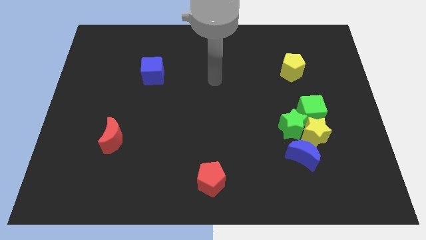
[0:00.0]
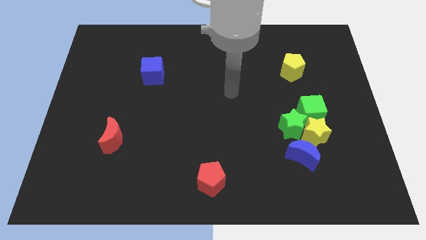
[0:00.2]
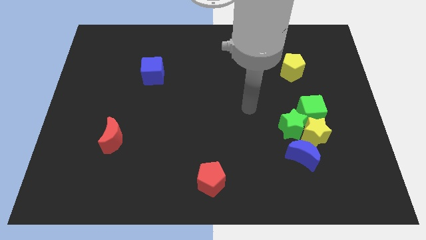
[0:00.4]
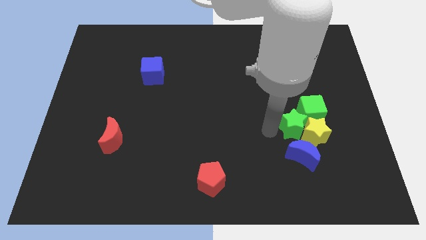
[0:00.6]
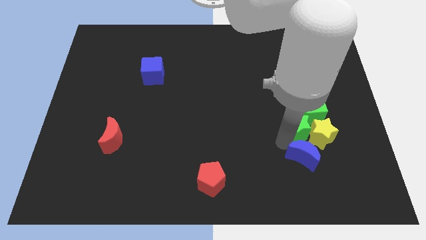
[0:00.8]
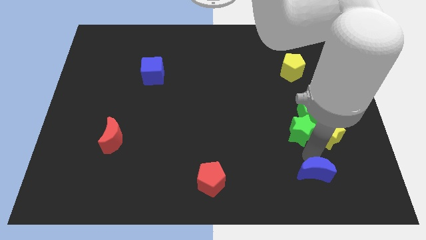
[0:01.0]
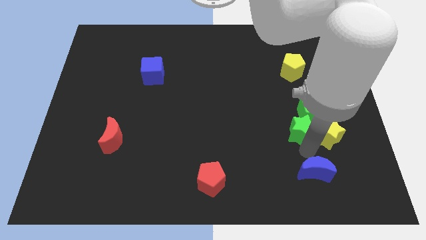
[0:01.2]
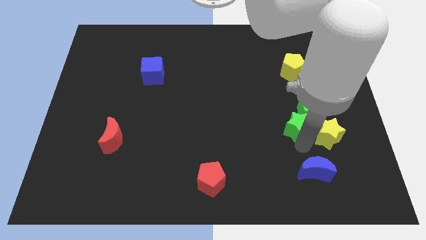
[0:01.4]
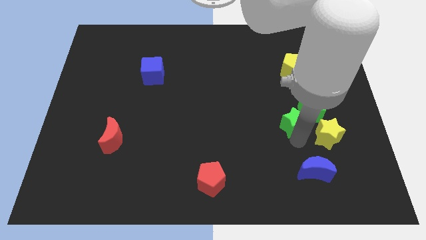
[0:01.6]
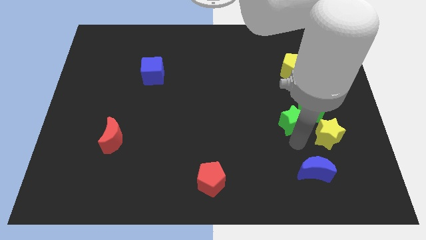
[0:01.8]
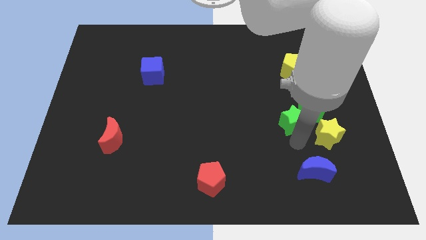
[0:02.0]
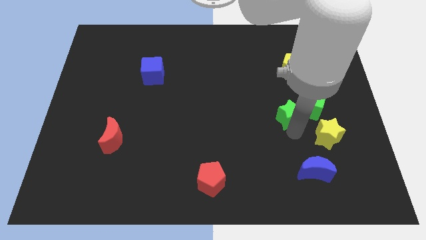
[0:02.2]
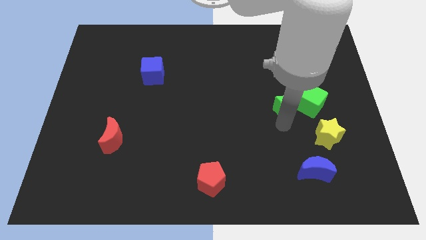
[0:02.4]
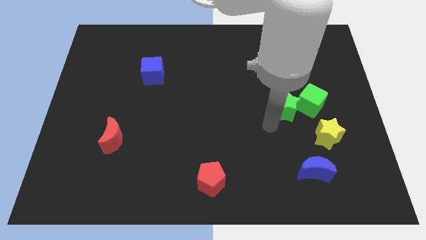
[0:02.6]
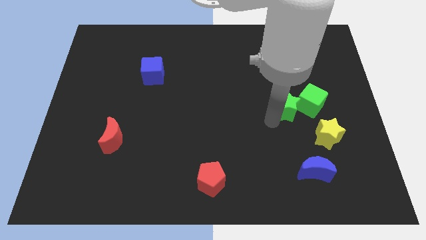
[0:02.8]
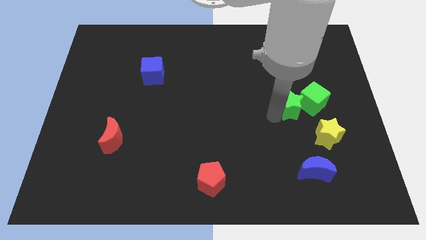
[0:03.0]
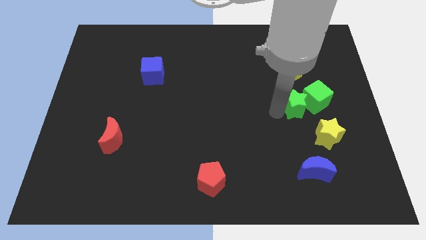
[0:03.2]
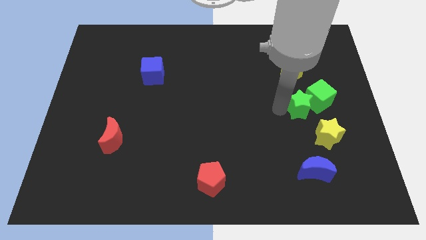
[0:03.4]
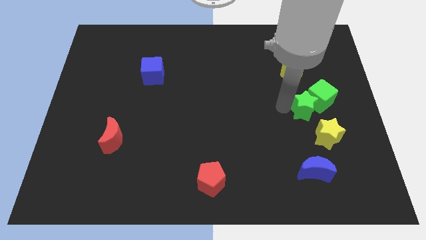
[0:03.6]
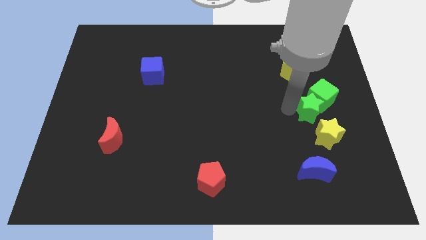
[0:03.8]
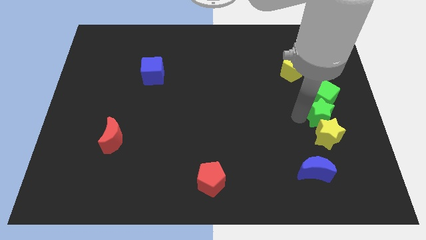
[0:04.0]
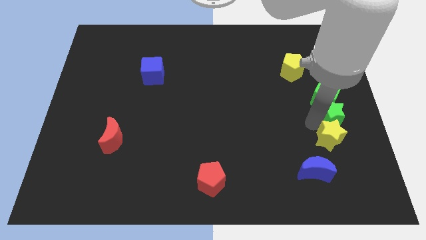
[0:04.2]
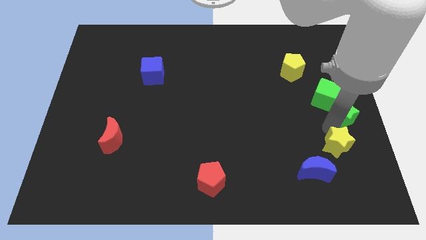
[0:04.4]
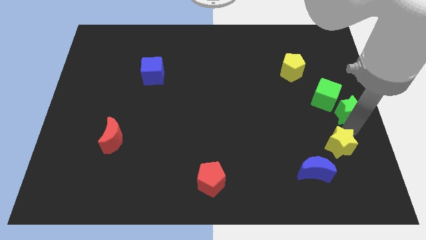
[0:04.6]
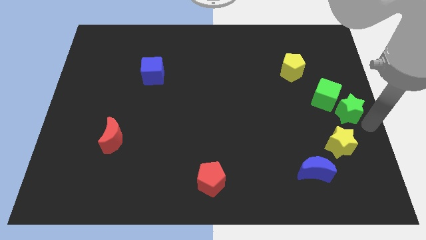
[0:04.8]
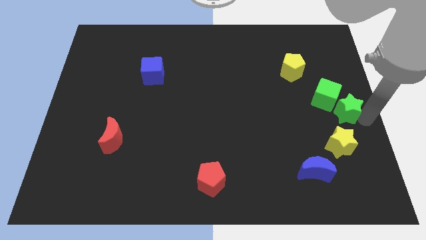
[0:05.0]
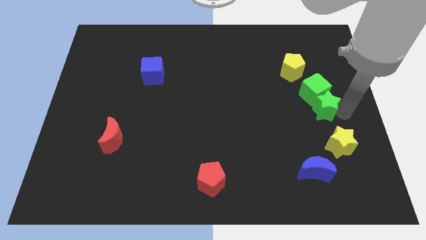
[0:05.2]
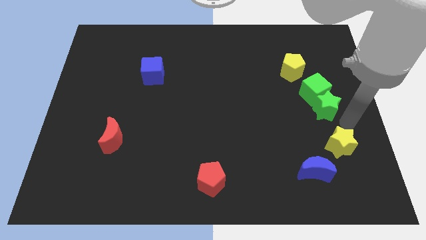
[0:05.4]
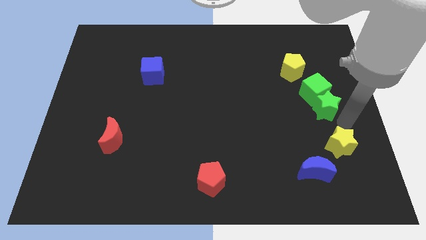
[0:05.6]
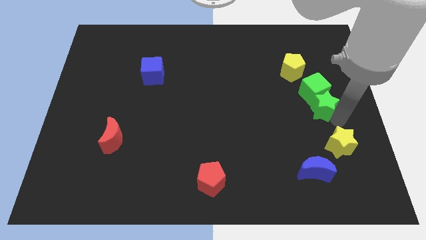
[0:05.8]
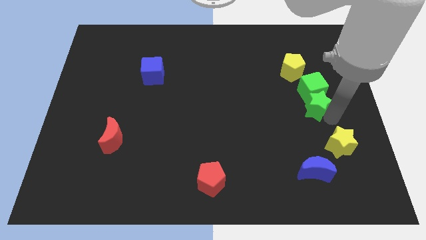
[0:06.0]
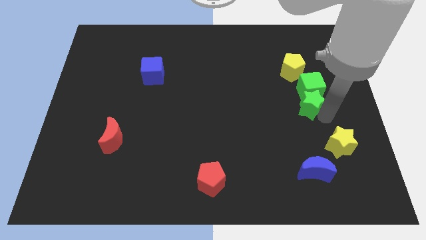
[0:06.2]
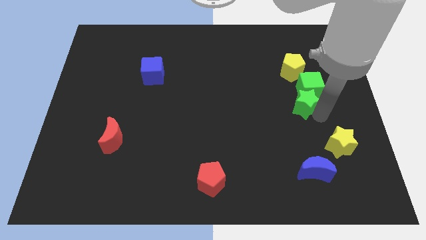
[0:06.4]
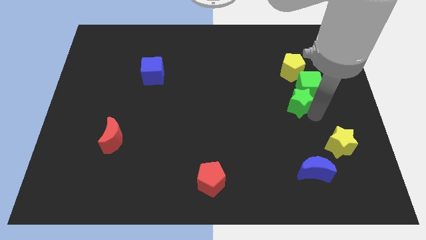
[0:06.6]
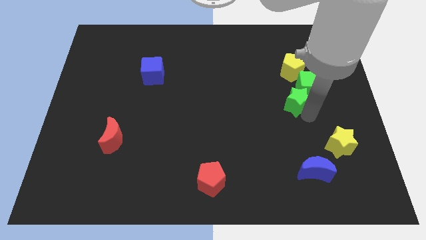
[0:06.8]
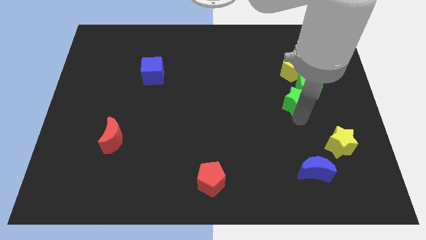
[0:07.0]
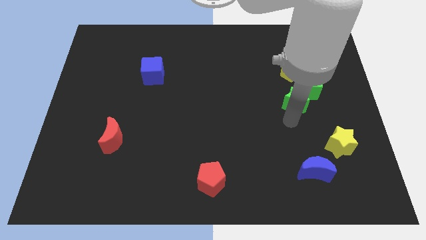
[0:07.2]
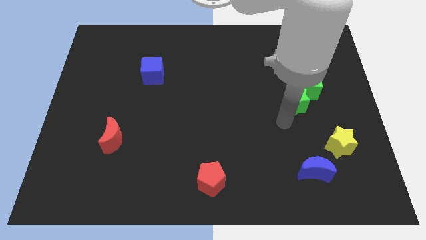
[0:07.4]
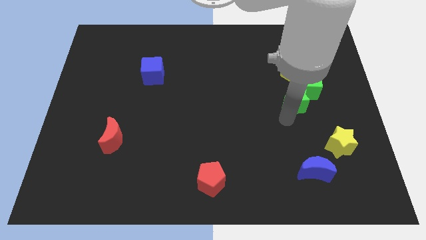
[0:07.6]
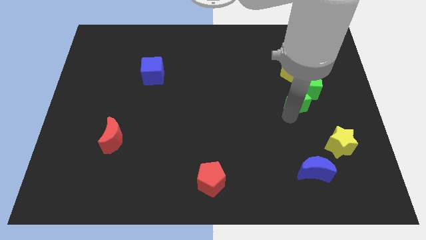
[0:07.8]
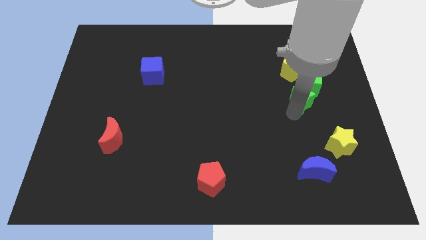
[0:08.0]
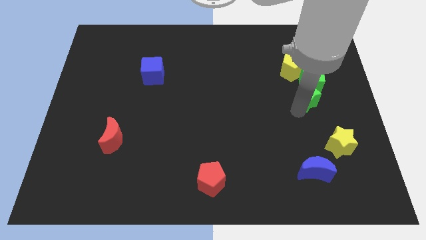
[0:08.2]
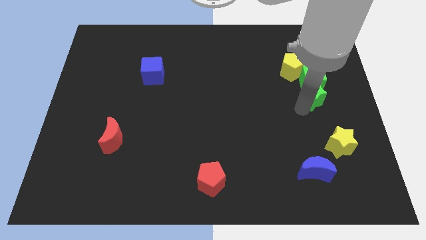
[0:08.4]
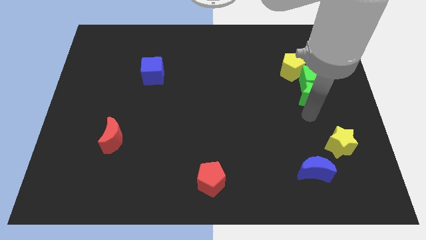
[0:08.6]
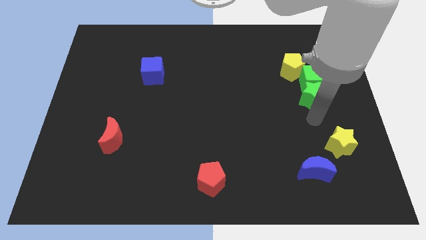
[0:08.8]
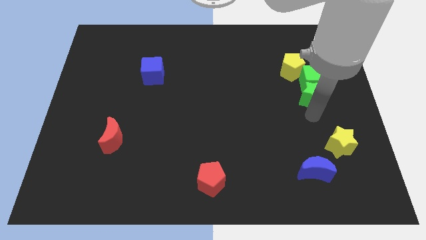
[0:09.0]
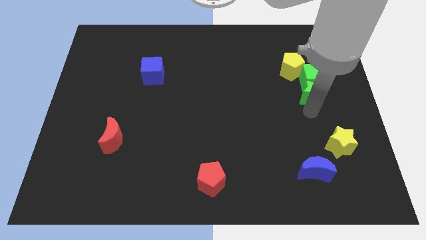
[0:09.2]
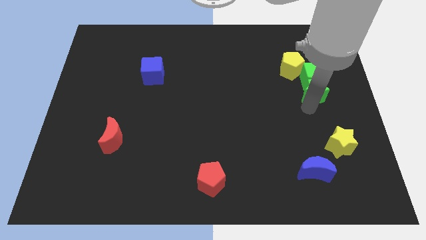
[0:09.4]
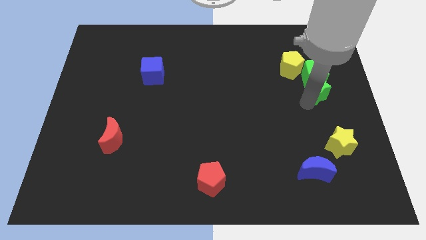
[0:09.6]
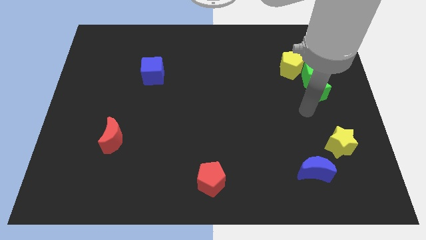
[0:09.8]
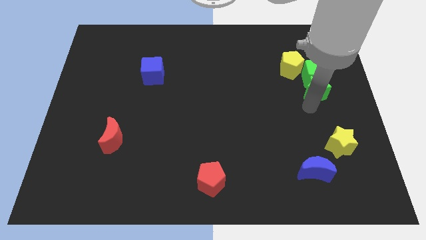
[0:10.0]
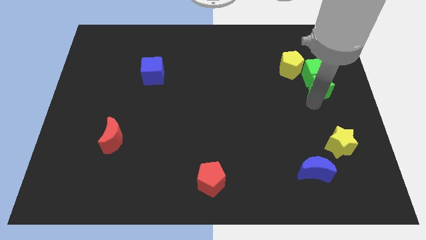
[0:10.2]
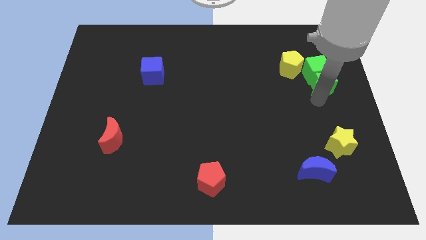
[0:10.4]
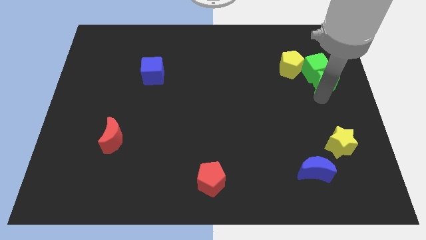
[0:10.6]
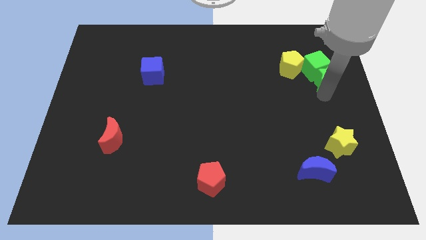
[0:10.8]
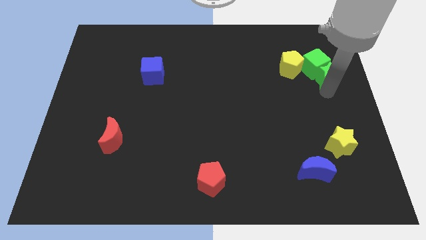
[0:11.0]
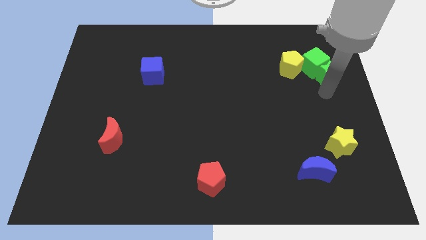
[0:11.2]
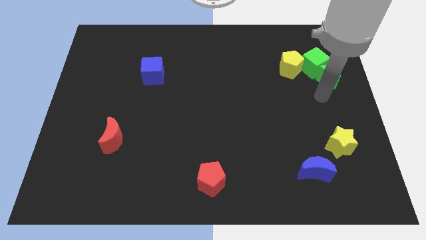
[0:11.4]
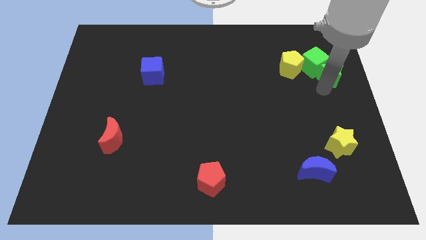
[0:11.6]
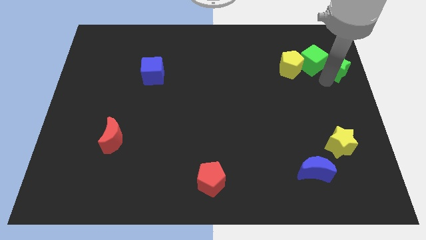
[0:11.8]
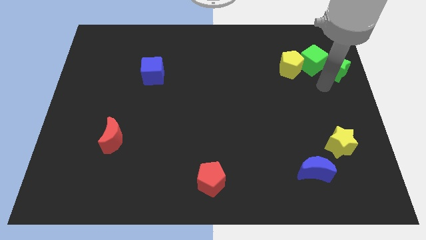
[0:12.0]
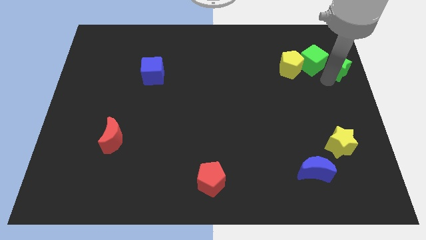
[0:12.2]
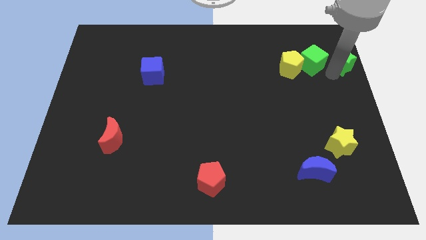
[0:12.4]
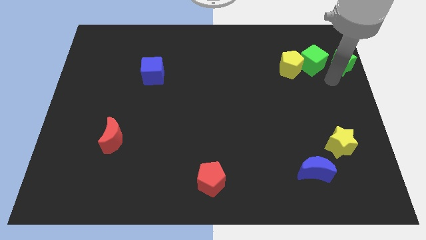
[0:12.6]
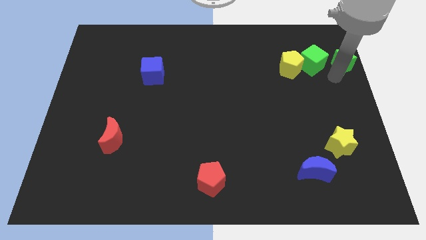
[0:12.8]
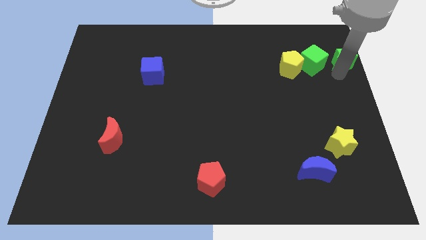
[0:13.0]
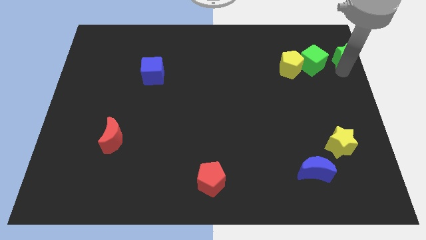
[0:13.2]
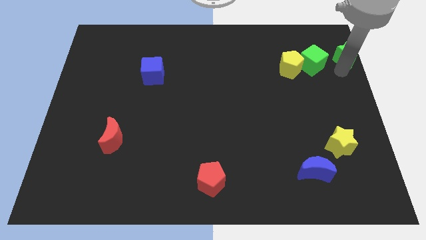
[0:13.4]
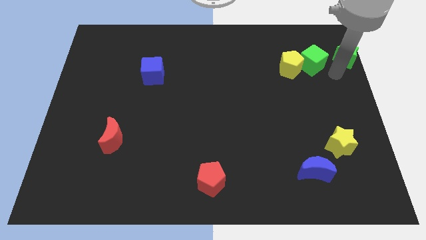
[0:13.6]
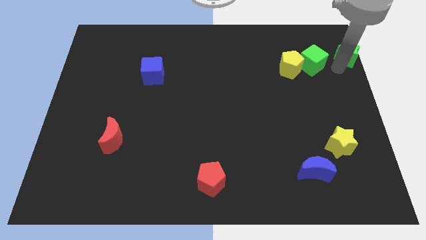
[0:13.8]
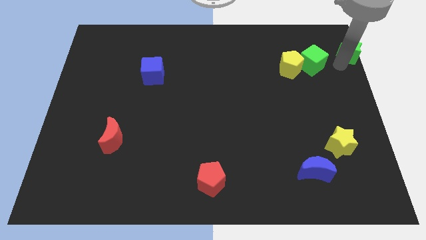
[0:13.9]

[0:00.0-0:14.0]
move the green star to the top right of the board

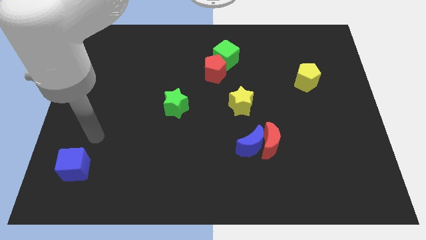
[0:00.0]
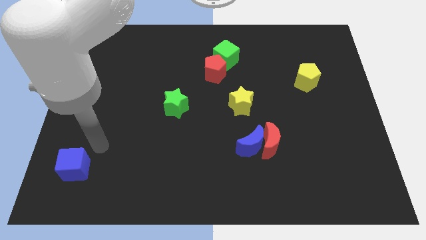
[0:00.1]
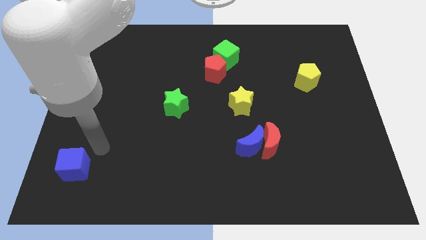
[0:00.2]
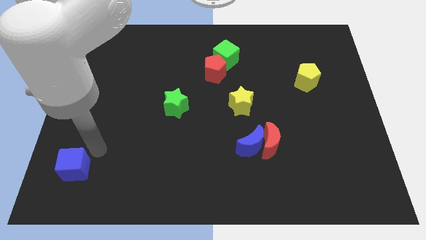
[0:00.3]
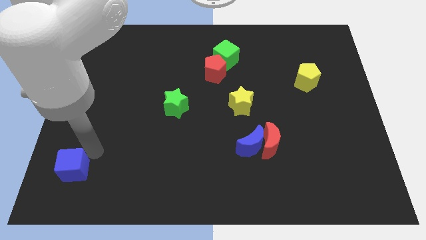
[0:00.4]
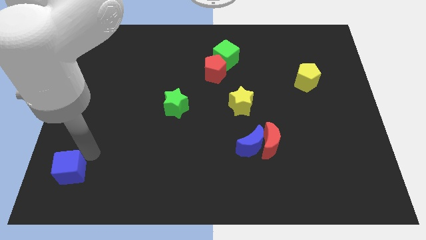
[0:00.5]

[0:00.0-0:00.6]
put the blue cube to the bottom left corner
